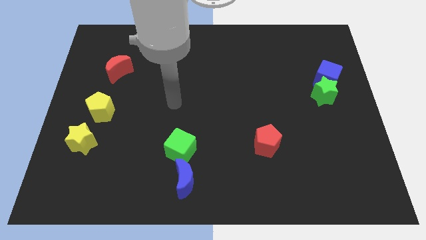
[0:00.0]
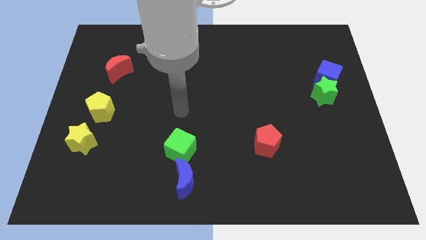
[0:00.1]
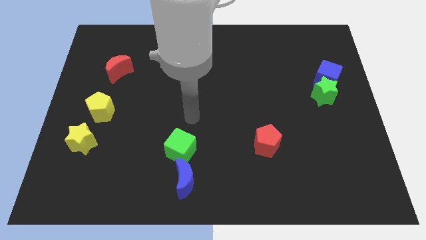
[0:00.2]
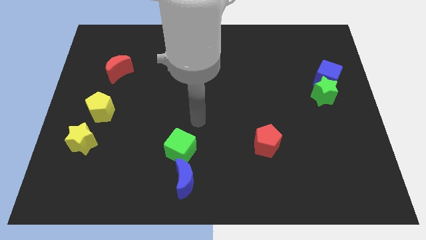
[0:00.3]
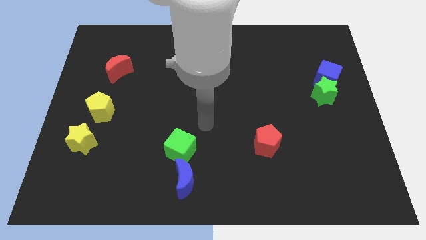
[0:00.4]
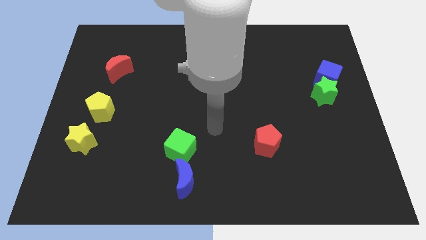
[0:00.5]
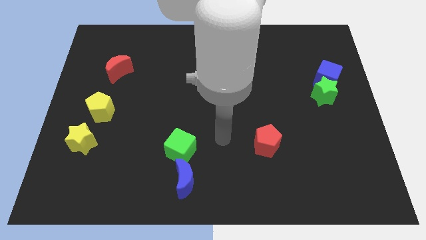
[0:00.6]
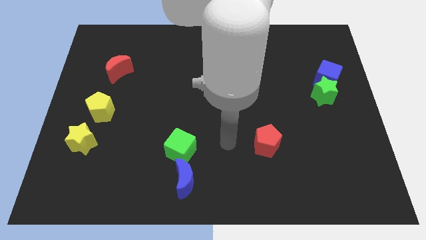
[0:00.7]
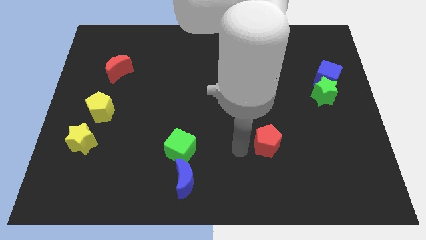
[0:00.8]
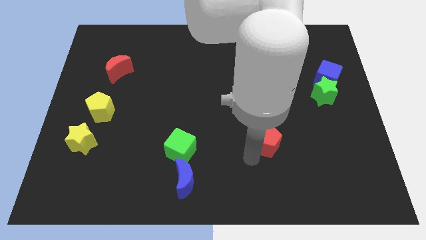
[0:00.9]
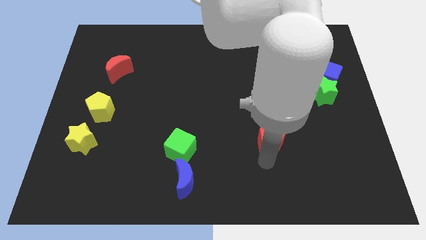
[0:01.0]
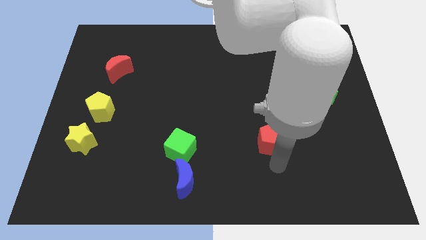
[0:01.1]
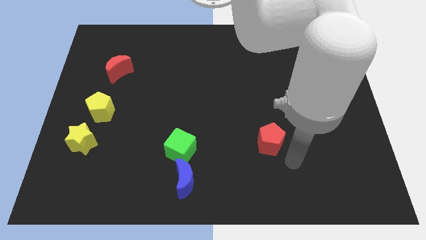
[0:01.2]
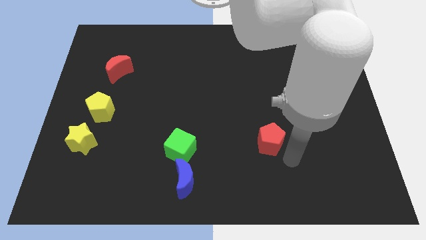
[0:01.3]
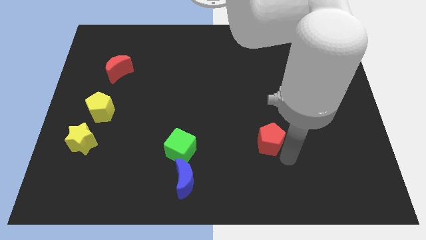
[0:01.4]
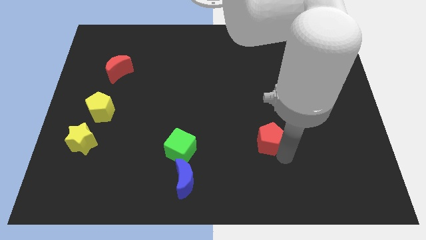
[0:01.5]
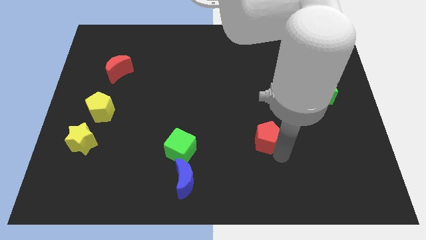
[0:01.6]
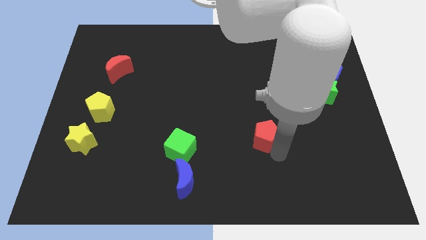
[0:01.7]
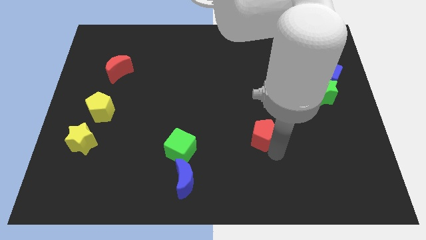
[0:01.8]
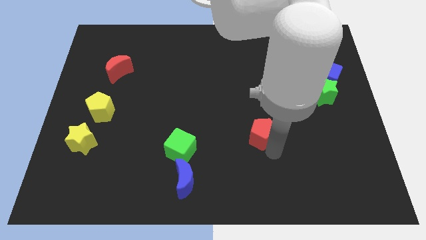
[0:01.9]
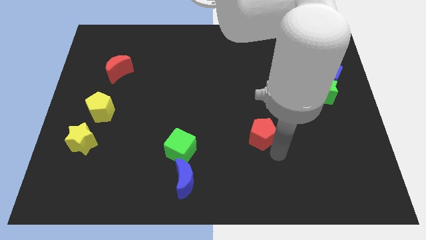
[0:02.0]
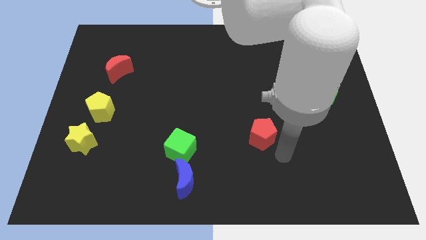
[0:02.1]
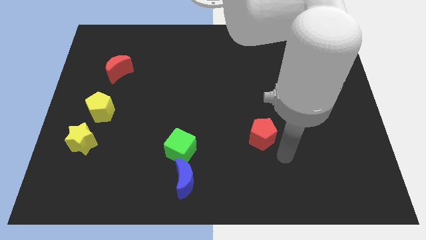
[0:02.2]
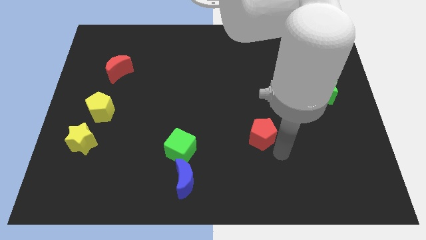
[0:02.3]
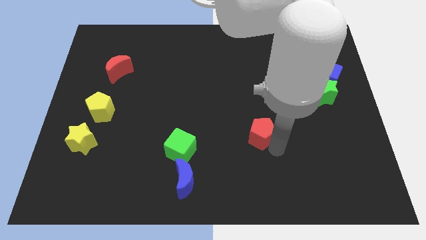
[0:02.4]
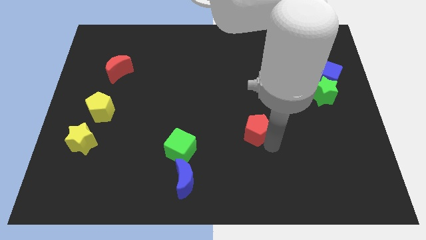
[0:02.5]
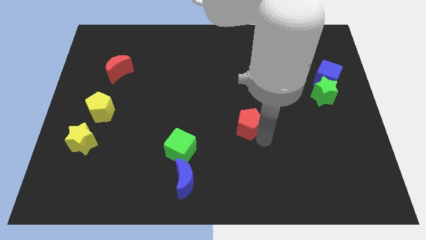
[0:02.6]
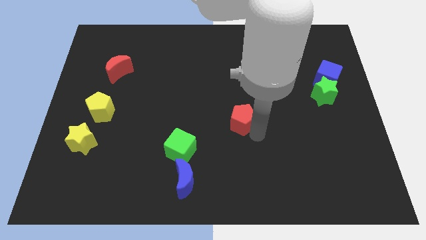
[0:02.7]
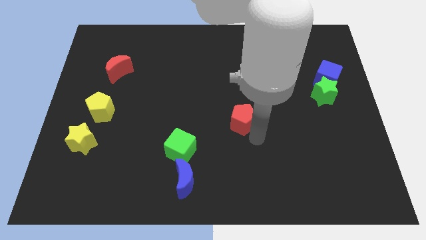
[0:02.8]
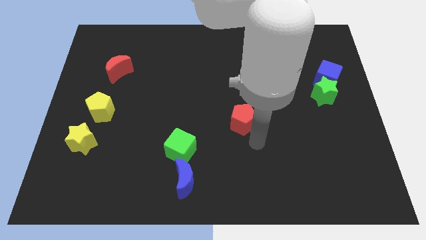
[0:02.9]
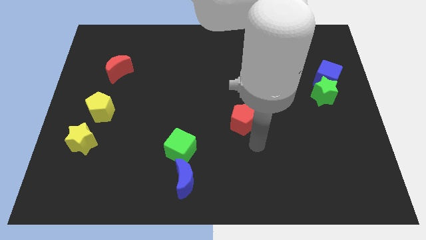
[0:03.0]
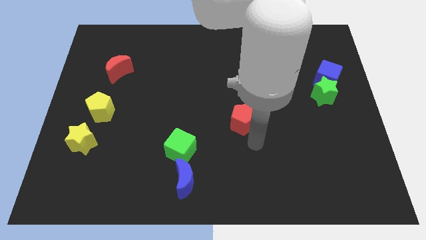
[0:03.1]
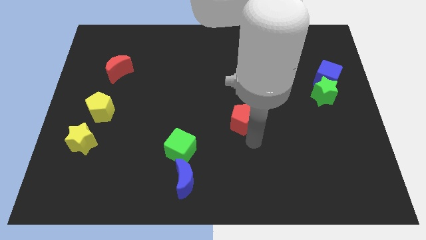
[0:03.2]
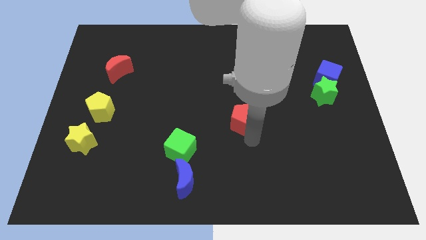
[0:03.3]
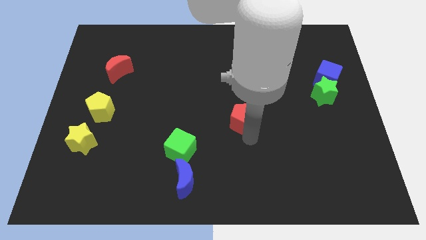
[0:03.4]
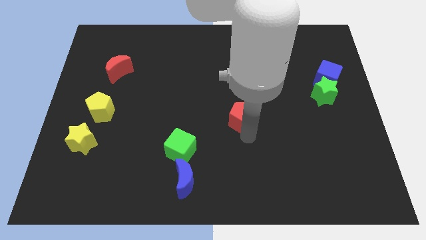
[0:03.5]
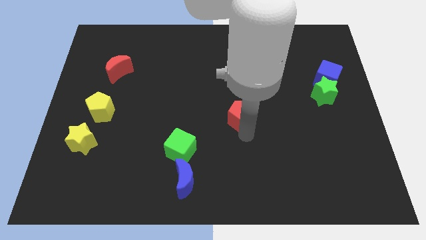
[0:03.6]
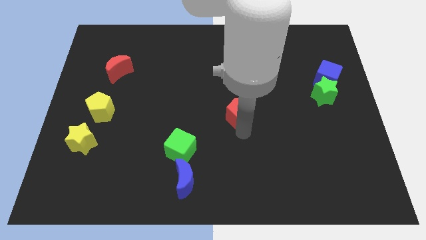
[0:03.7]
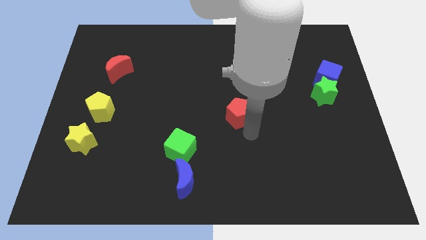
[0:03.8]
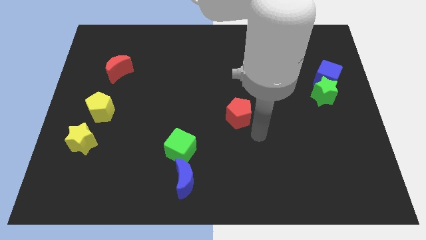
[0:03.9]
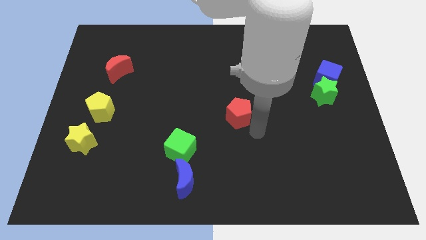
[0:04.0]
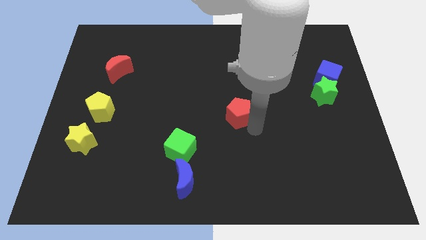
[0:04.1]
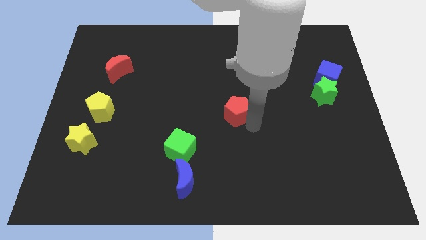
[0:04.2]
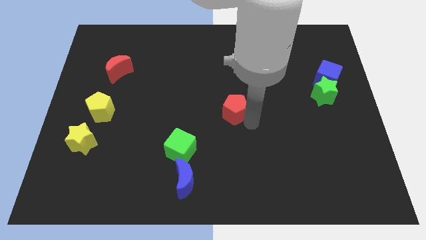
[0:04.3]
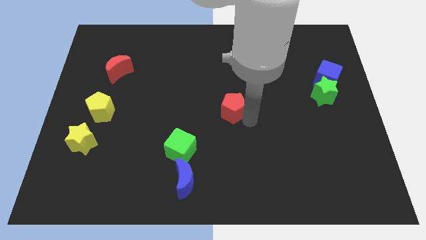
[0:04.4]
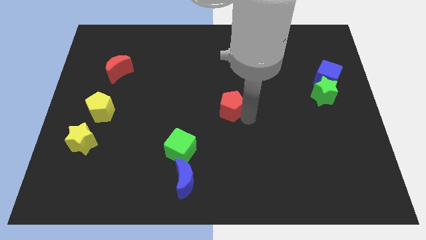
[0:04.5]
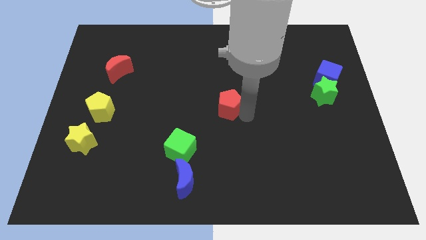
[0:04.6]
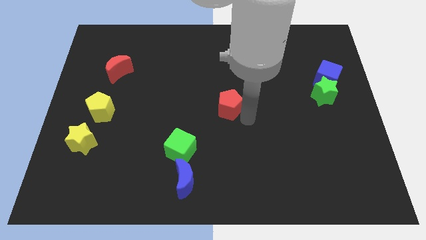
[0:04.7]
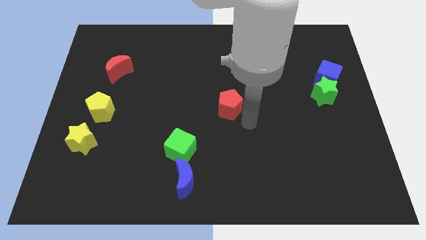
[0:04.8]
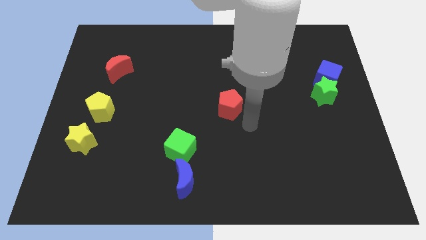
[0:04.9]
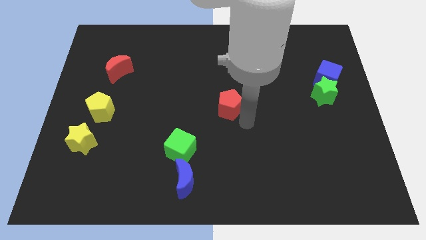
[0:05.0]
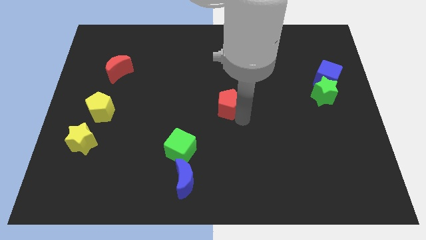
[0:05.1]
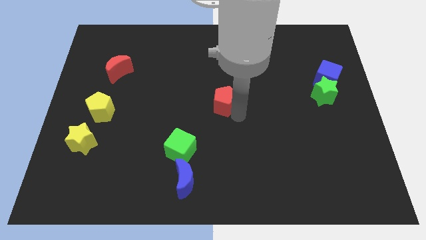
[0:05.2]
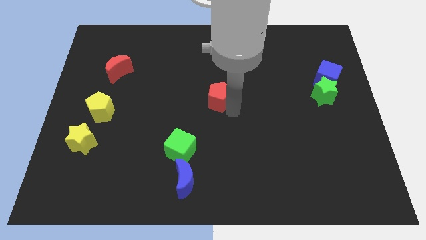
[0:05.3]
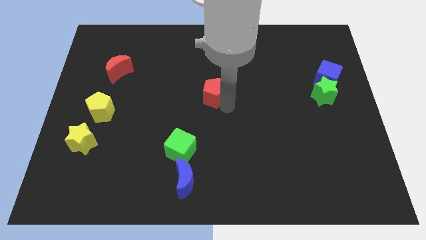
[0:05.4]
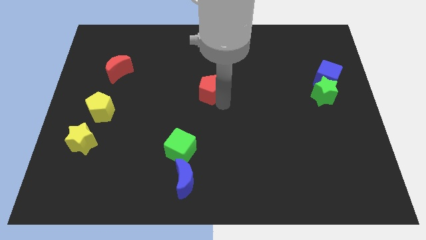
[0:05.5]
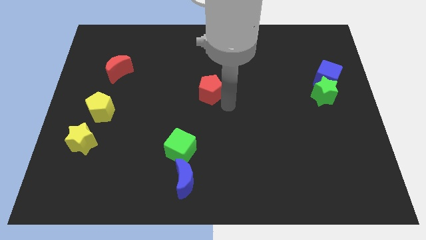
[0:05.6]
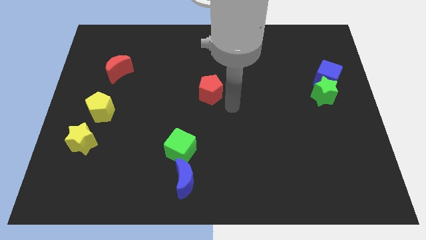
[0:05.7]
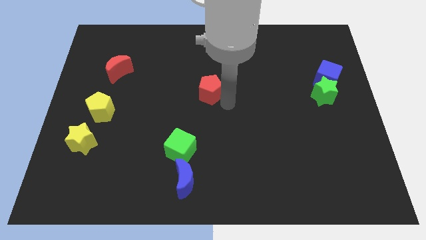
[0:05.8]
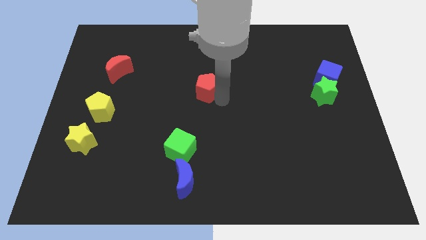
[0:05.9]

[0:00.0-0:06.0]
move the red pentagon up and to the left

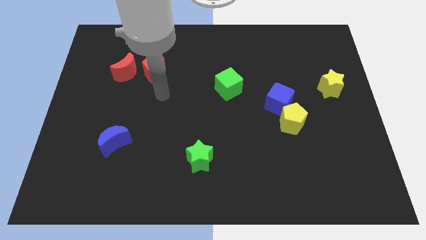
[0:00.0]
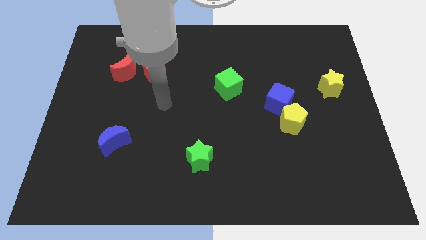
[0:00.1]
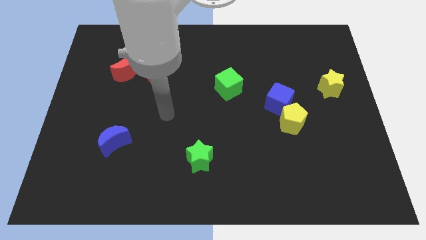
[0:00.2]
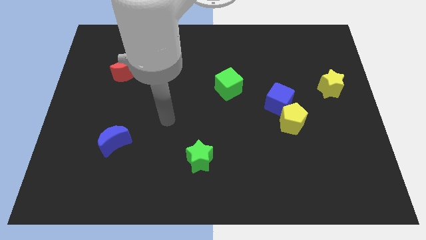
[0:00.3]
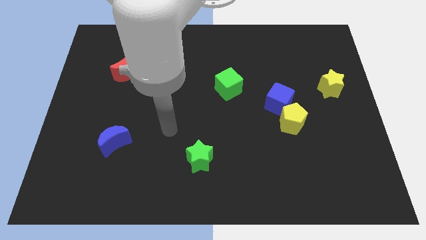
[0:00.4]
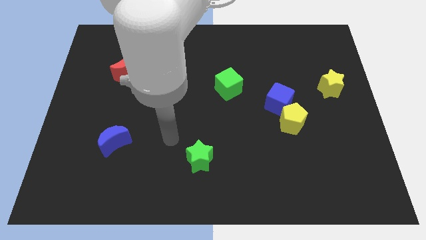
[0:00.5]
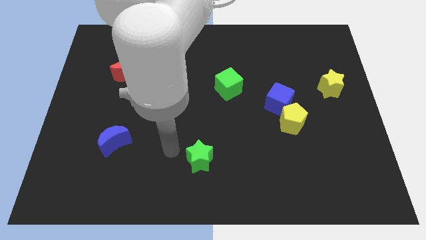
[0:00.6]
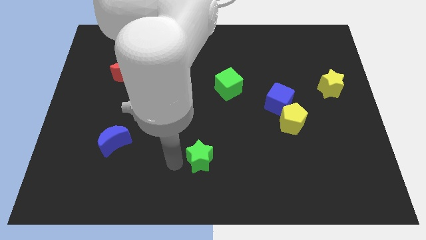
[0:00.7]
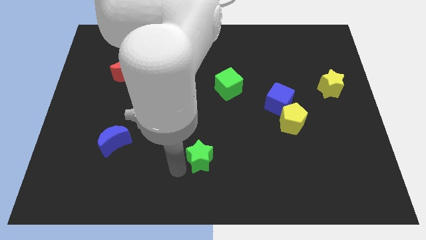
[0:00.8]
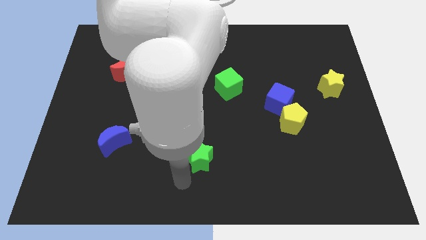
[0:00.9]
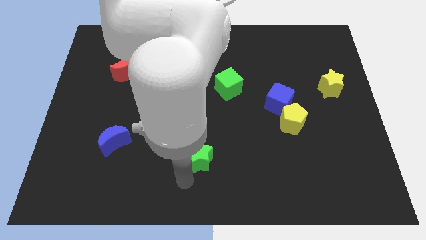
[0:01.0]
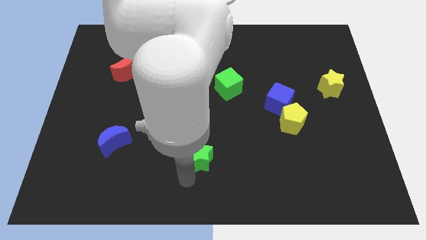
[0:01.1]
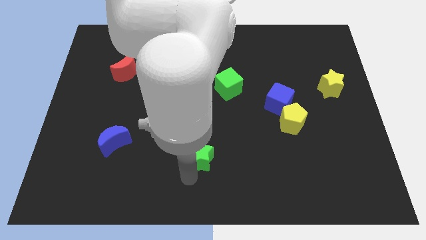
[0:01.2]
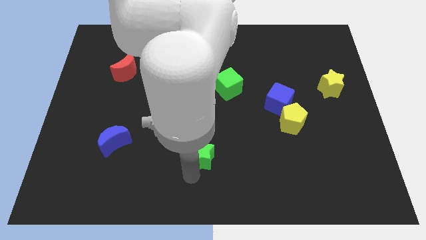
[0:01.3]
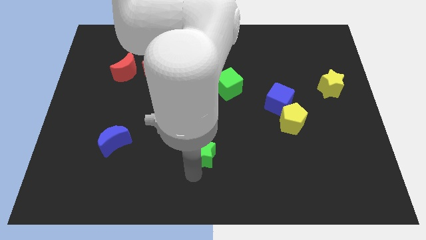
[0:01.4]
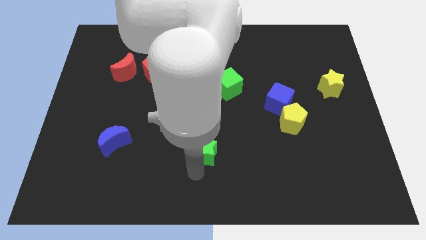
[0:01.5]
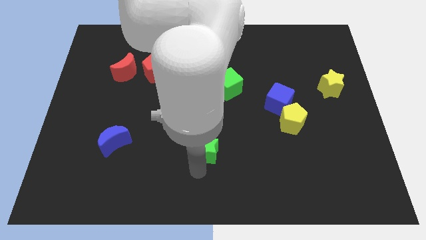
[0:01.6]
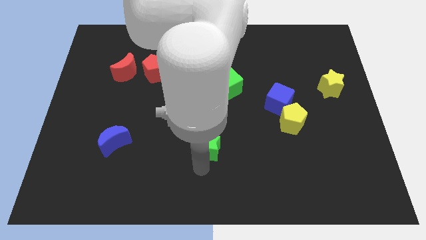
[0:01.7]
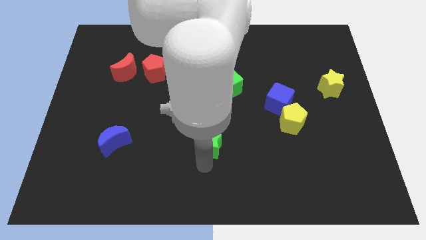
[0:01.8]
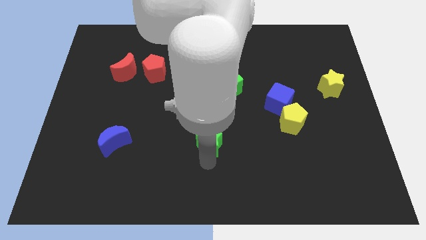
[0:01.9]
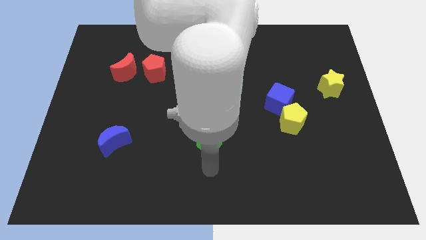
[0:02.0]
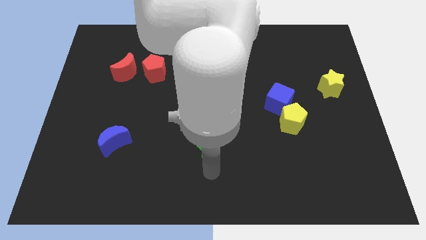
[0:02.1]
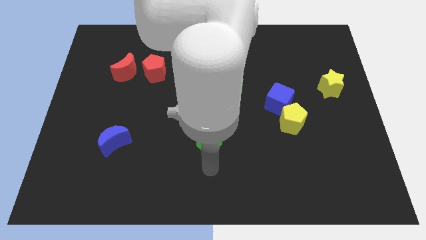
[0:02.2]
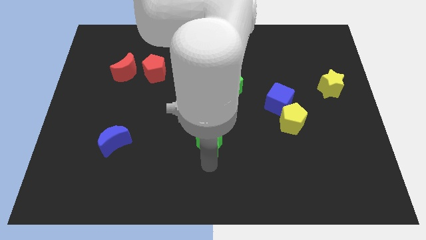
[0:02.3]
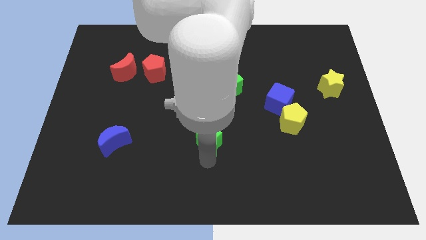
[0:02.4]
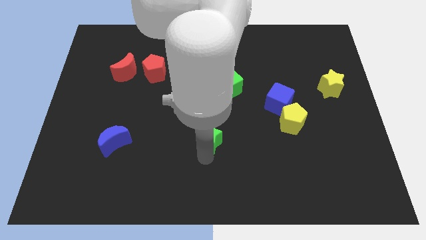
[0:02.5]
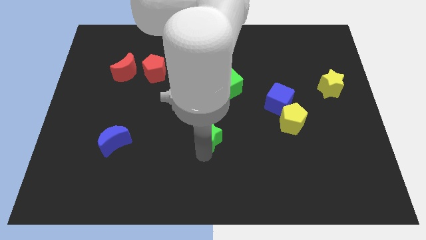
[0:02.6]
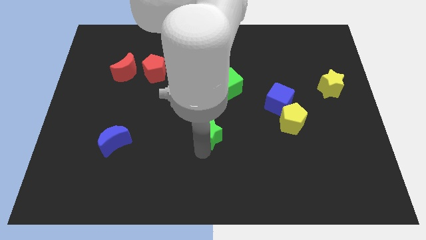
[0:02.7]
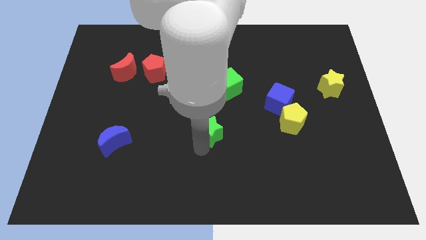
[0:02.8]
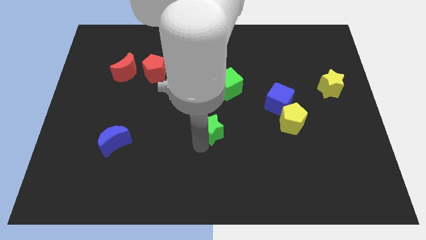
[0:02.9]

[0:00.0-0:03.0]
move the green star up somewhat
